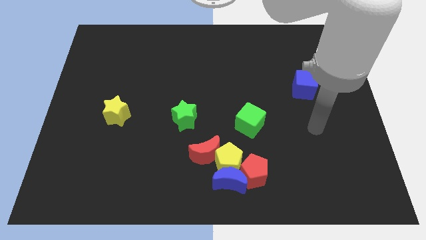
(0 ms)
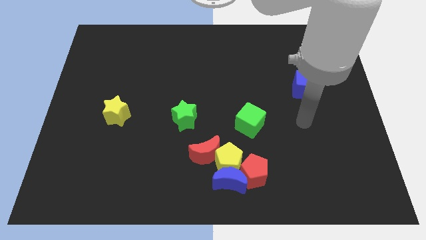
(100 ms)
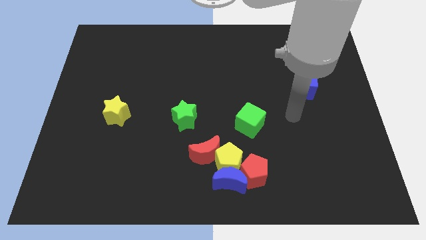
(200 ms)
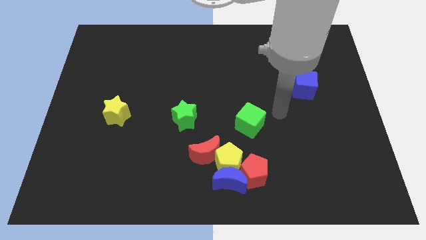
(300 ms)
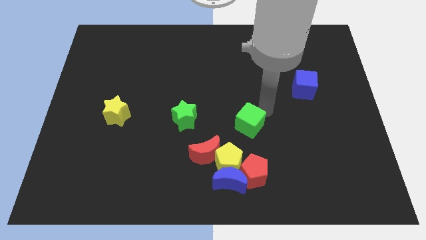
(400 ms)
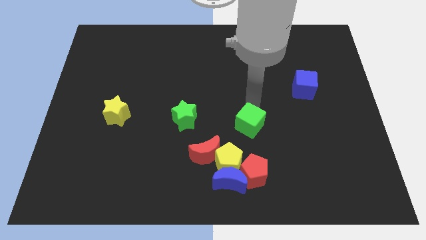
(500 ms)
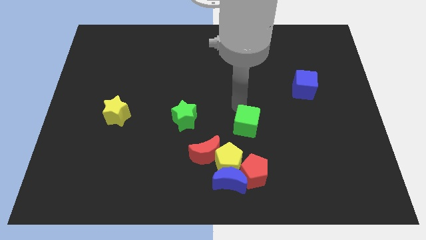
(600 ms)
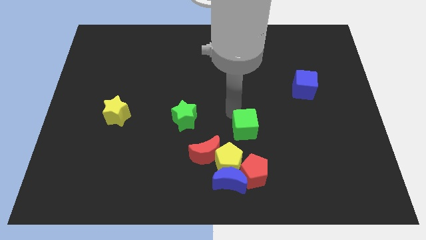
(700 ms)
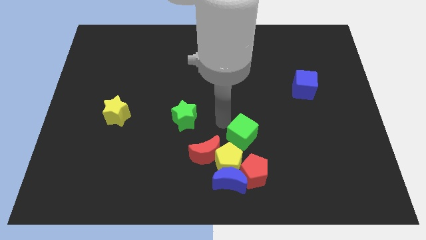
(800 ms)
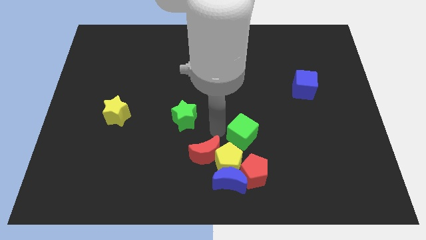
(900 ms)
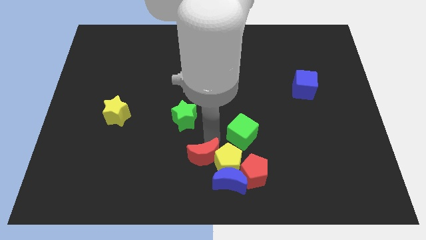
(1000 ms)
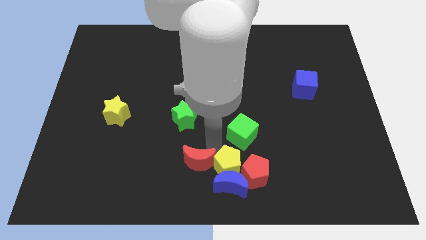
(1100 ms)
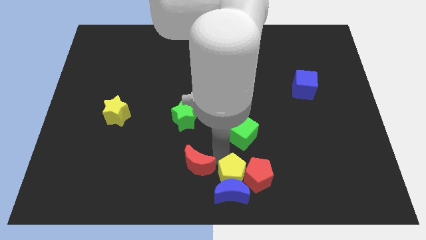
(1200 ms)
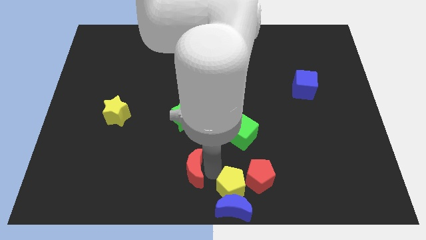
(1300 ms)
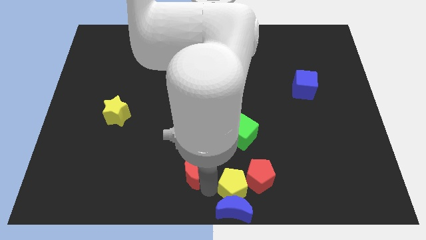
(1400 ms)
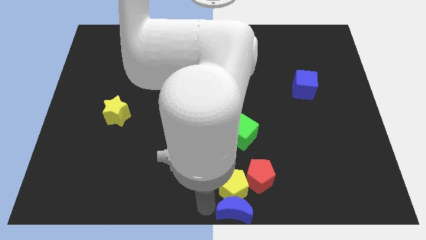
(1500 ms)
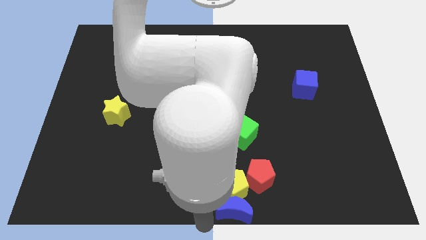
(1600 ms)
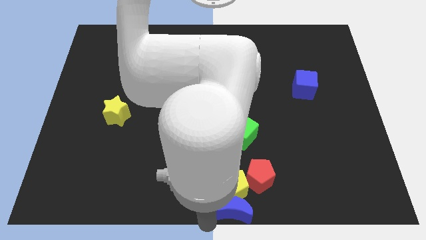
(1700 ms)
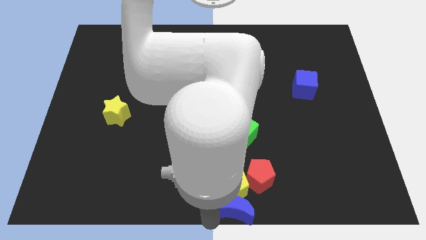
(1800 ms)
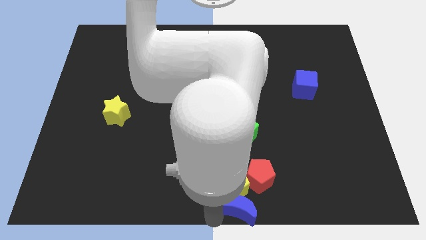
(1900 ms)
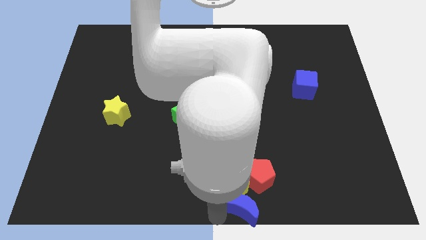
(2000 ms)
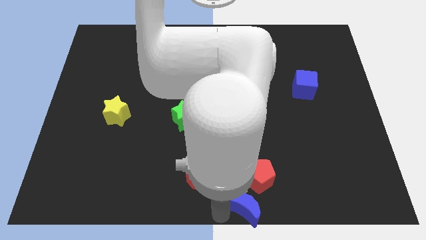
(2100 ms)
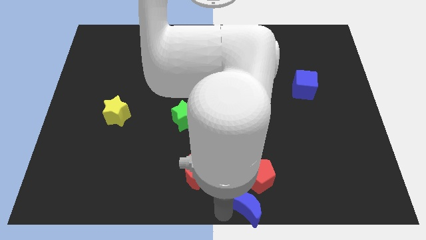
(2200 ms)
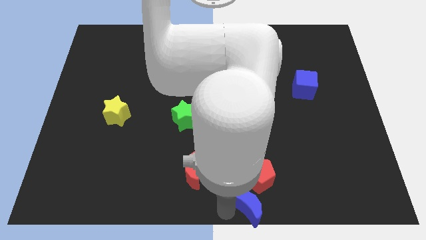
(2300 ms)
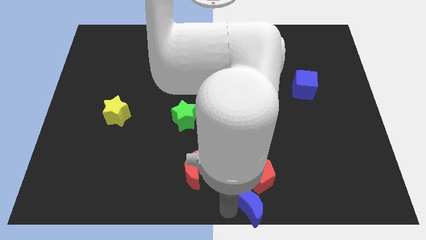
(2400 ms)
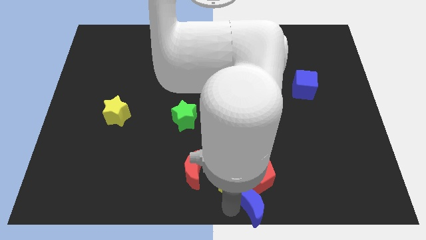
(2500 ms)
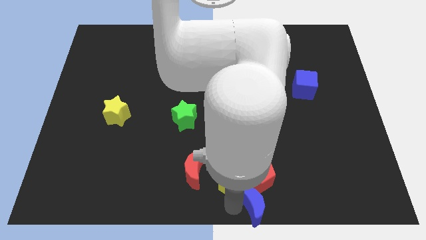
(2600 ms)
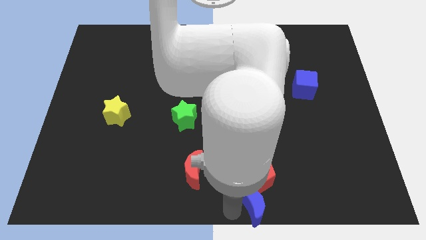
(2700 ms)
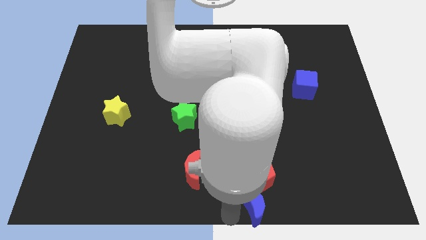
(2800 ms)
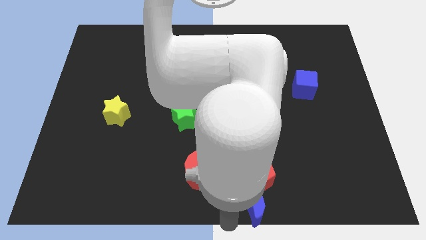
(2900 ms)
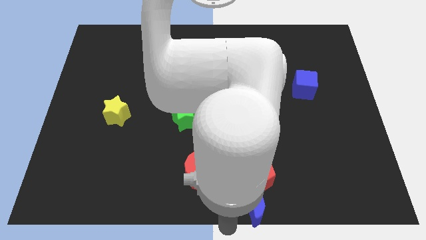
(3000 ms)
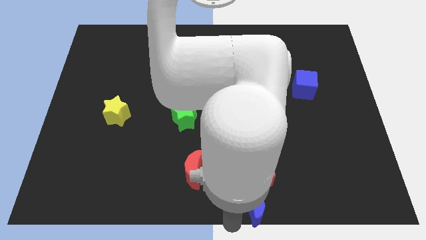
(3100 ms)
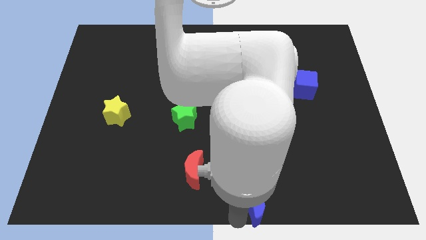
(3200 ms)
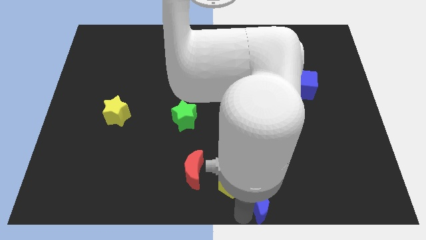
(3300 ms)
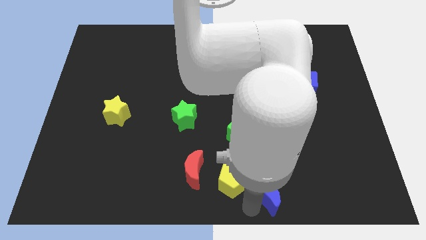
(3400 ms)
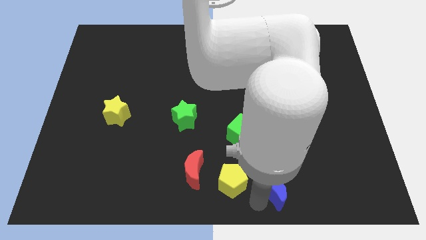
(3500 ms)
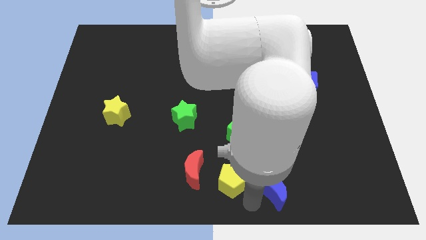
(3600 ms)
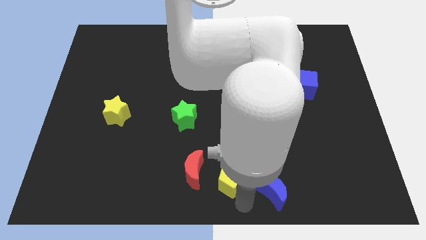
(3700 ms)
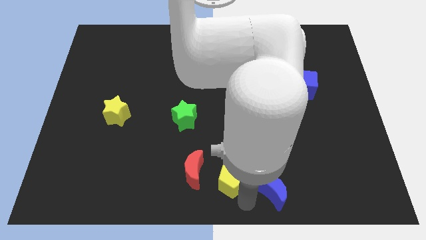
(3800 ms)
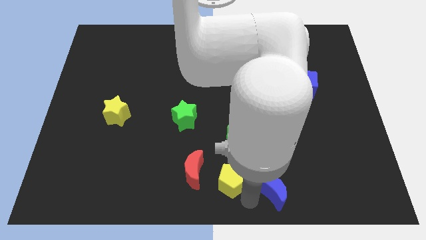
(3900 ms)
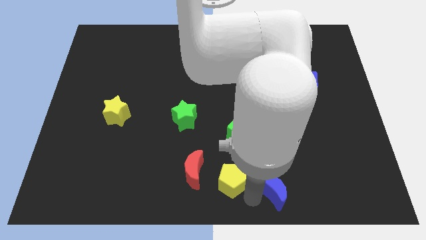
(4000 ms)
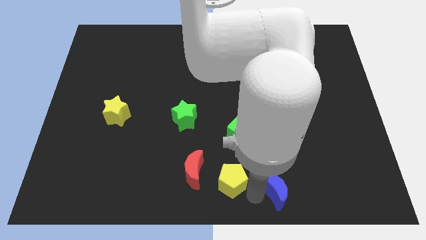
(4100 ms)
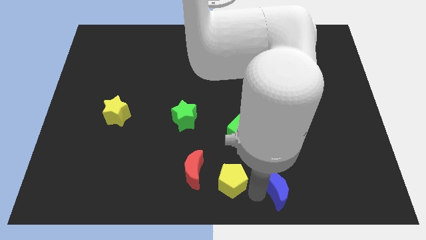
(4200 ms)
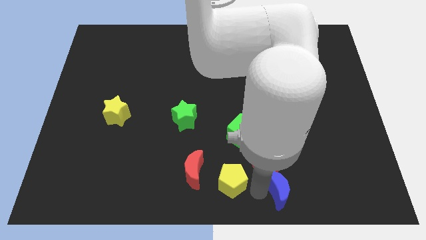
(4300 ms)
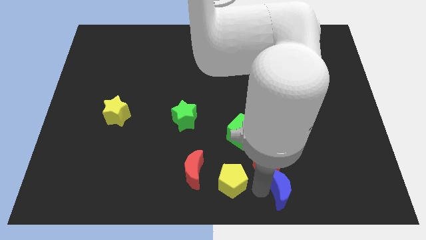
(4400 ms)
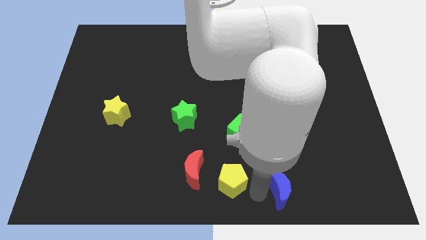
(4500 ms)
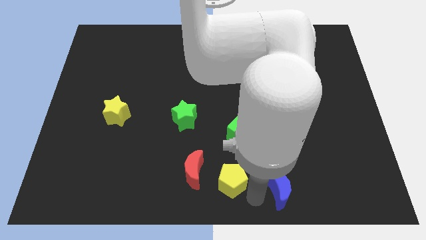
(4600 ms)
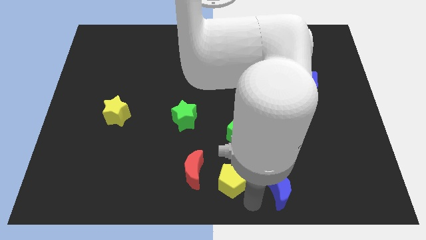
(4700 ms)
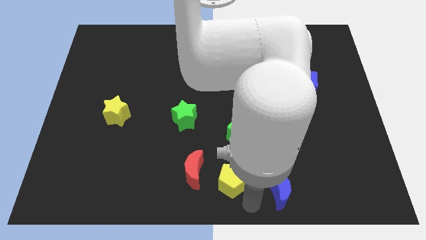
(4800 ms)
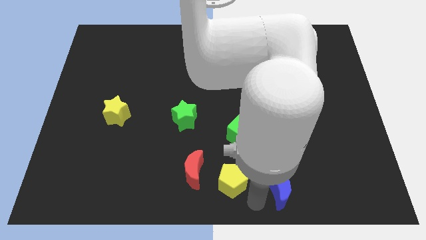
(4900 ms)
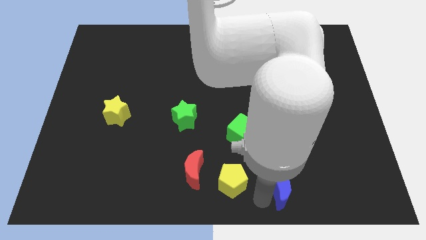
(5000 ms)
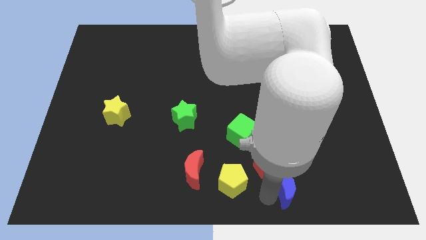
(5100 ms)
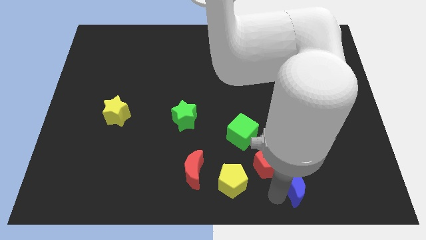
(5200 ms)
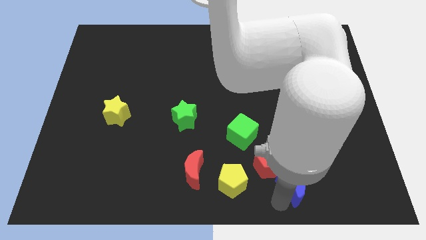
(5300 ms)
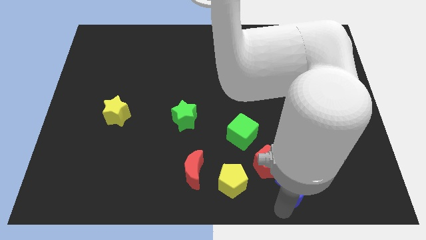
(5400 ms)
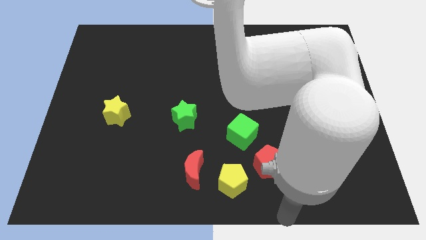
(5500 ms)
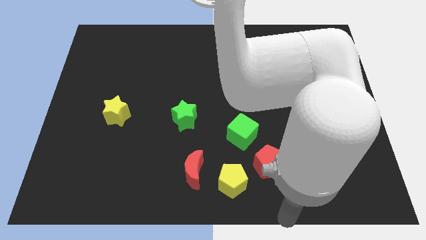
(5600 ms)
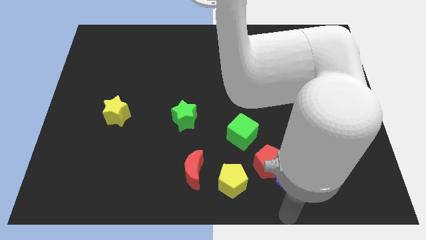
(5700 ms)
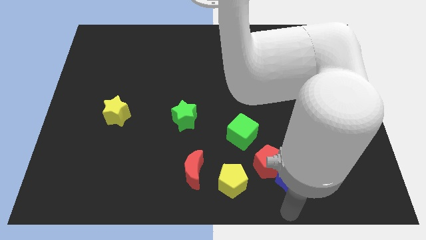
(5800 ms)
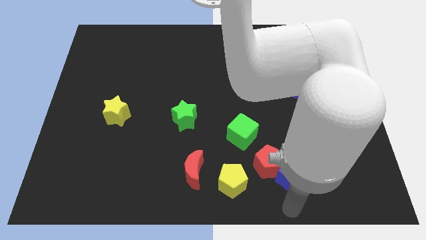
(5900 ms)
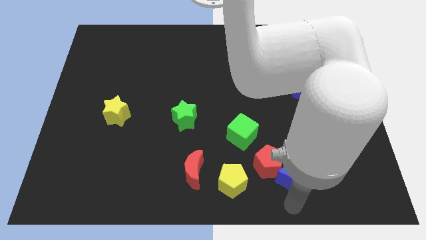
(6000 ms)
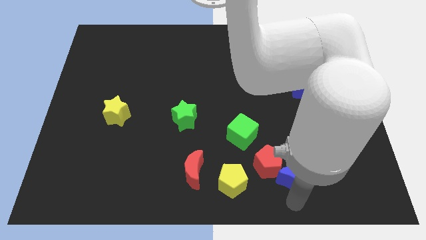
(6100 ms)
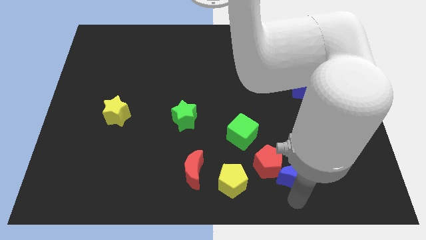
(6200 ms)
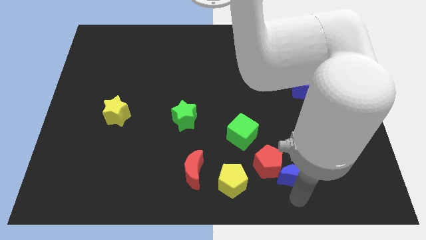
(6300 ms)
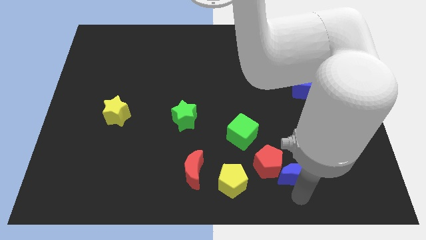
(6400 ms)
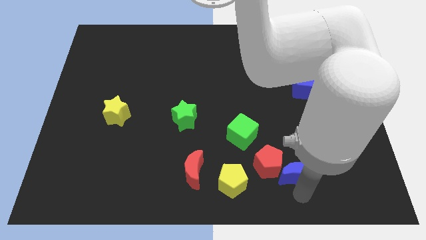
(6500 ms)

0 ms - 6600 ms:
slightly move the blue moon up and to the right

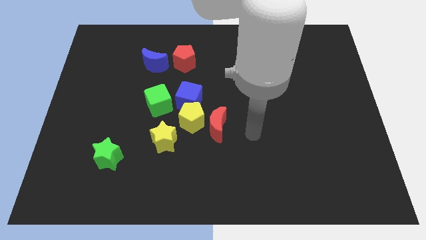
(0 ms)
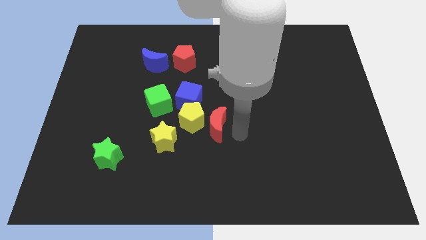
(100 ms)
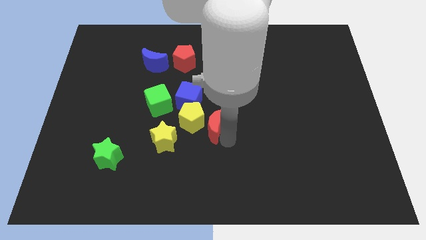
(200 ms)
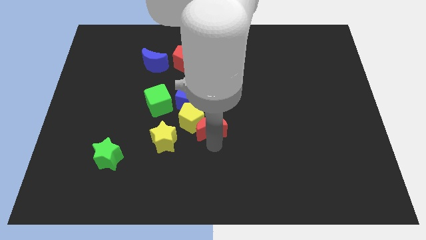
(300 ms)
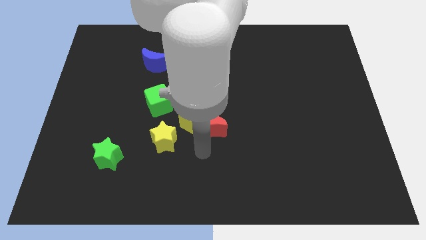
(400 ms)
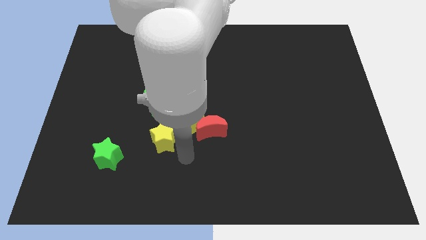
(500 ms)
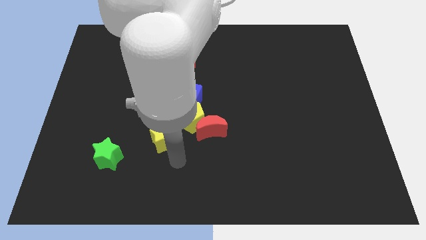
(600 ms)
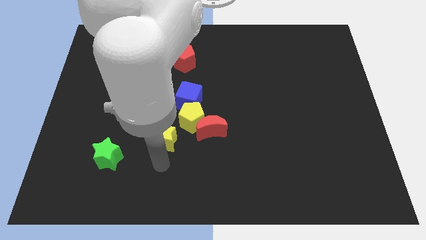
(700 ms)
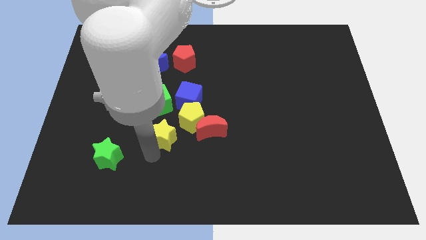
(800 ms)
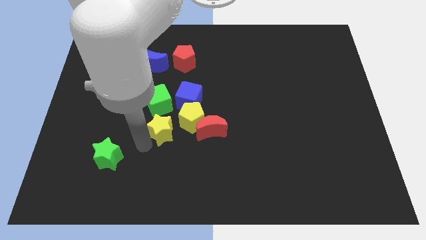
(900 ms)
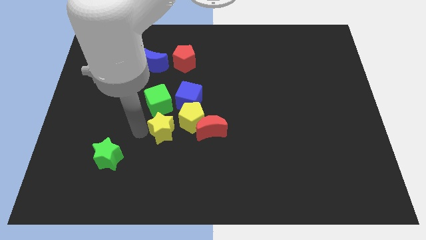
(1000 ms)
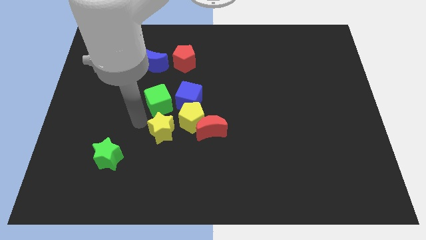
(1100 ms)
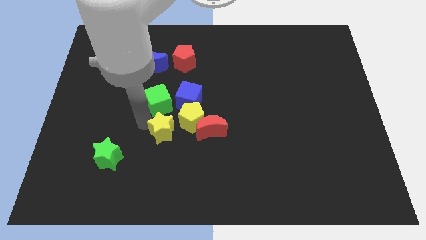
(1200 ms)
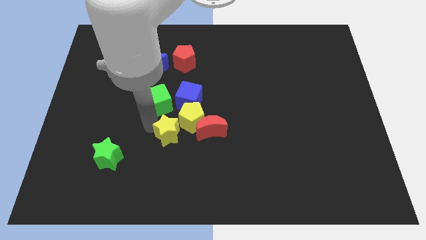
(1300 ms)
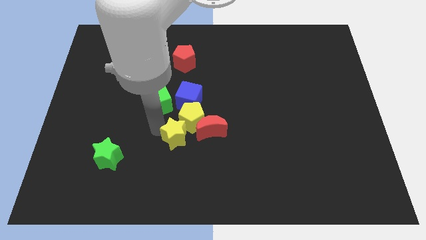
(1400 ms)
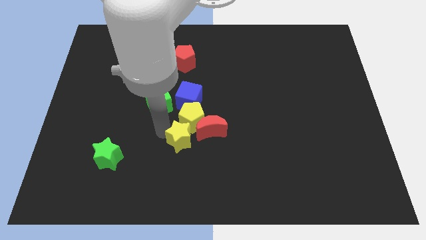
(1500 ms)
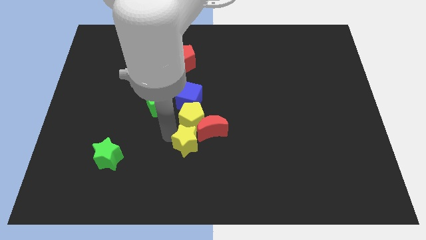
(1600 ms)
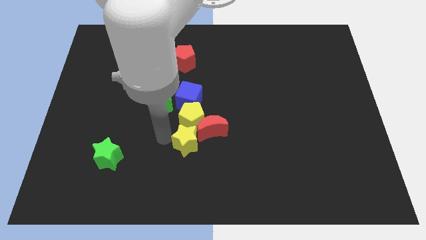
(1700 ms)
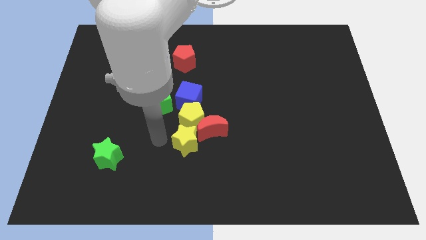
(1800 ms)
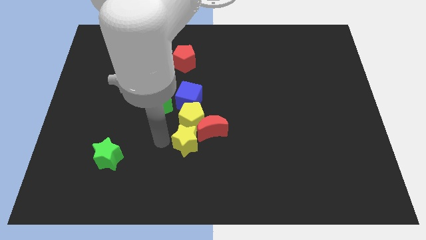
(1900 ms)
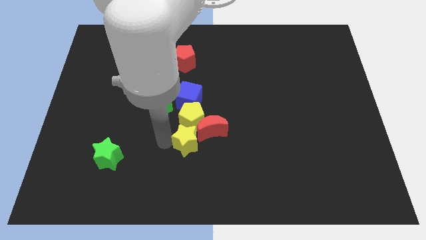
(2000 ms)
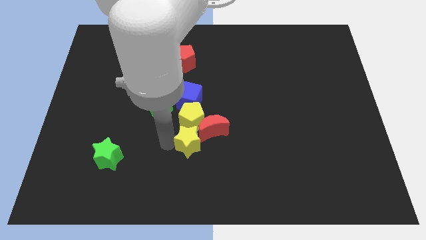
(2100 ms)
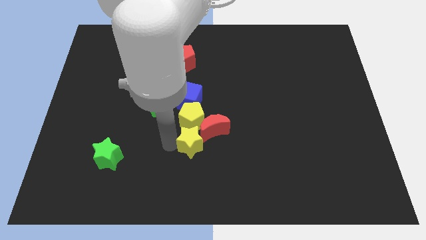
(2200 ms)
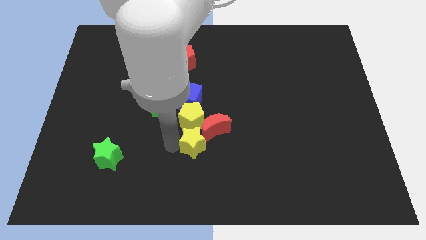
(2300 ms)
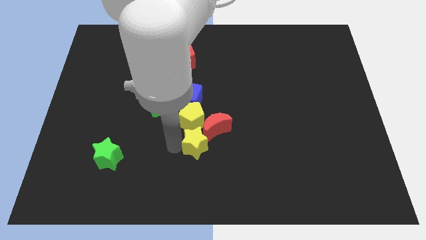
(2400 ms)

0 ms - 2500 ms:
slightly push the yellow star to the right
